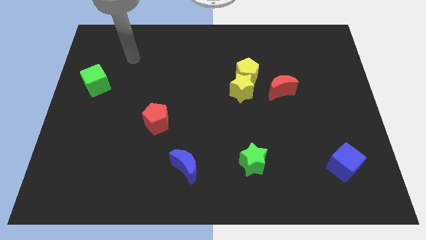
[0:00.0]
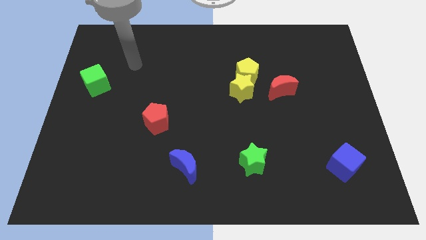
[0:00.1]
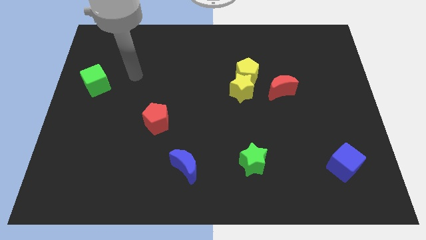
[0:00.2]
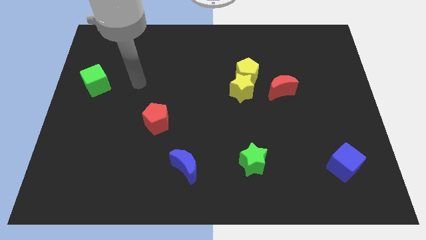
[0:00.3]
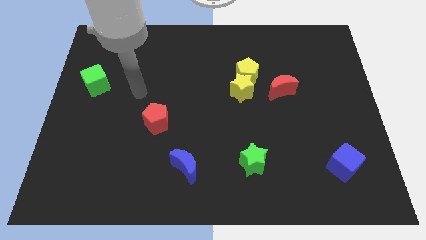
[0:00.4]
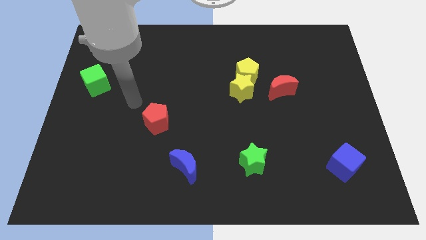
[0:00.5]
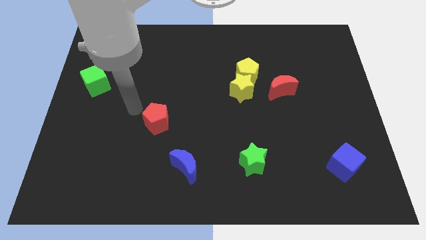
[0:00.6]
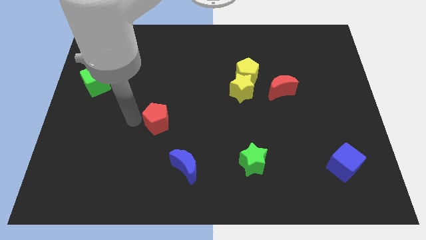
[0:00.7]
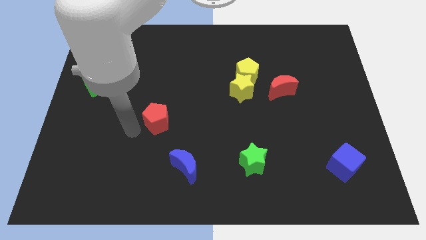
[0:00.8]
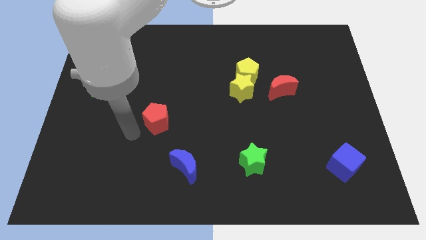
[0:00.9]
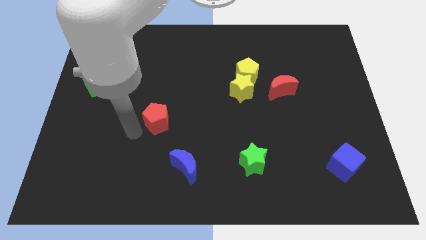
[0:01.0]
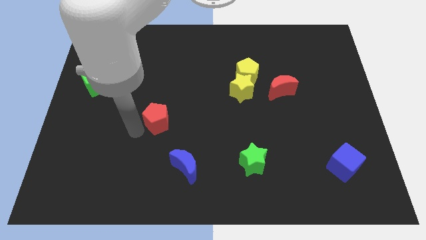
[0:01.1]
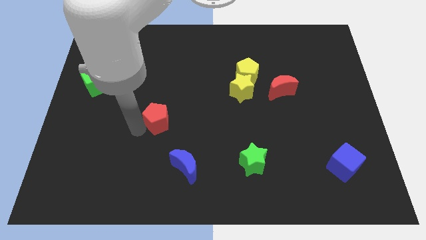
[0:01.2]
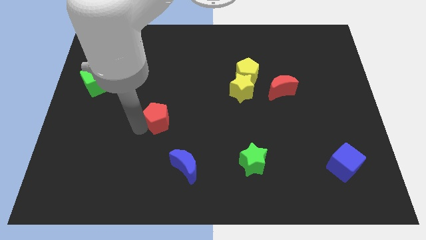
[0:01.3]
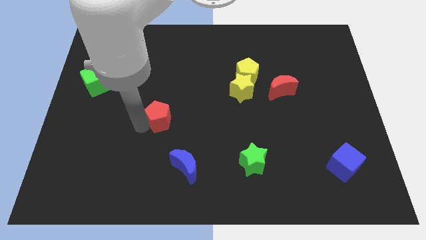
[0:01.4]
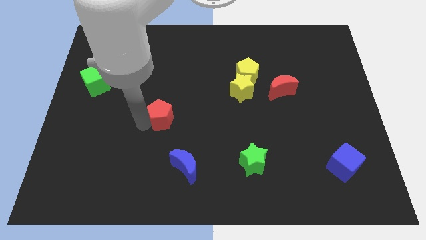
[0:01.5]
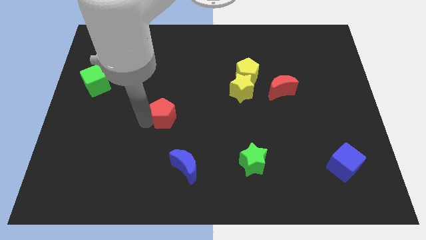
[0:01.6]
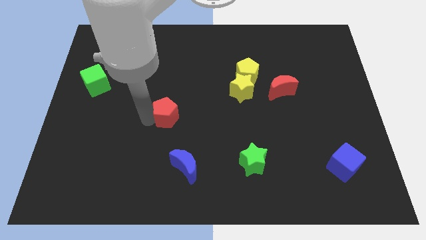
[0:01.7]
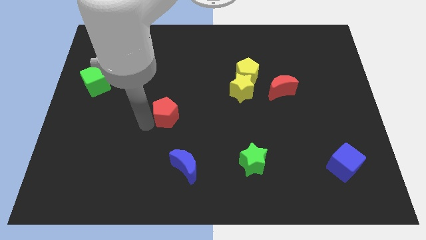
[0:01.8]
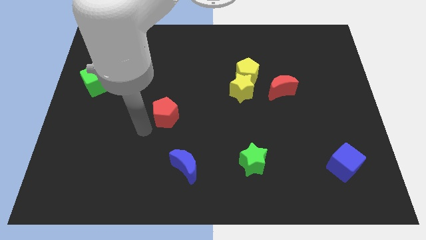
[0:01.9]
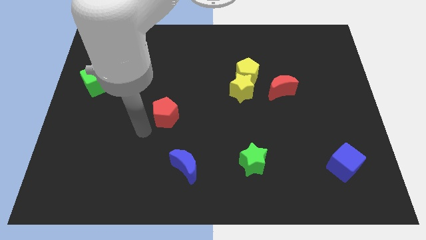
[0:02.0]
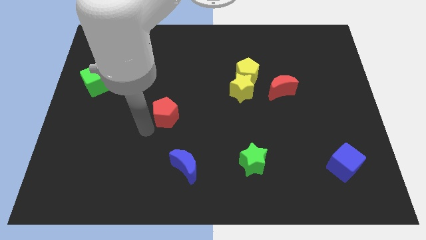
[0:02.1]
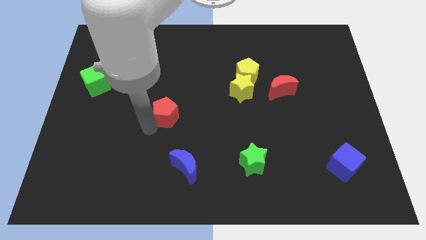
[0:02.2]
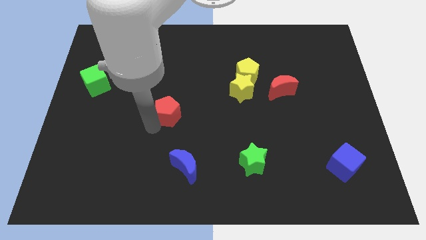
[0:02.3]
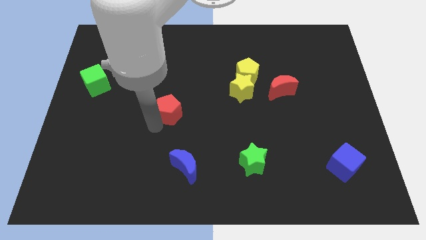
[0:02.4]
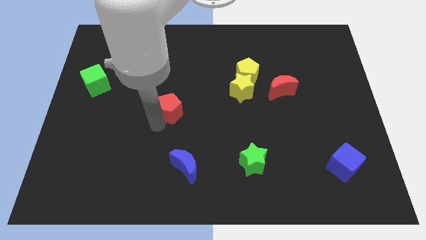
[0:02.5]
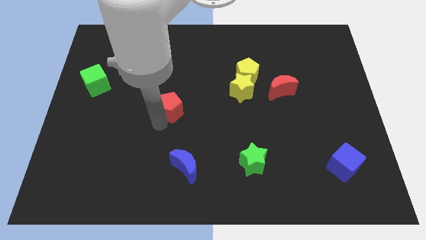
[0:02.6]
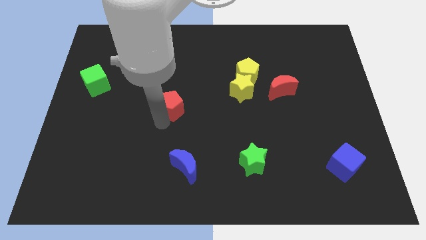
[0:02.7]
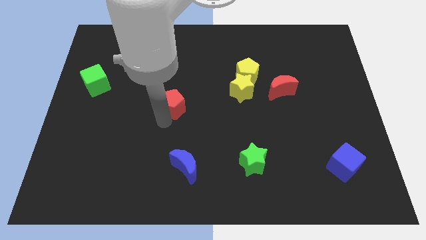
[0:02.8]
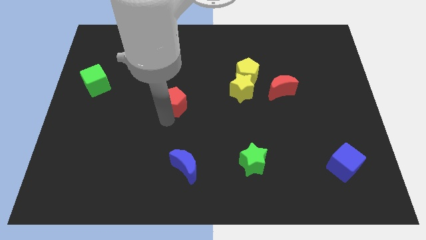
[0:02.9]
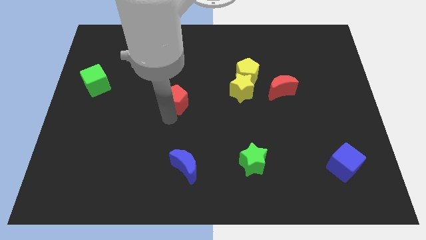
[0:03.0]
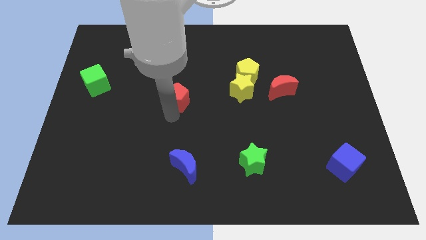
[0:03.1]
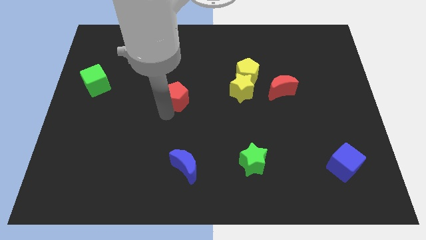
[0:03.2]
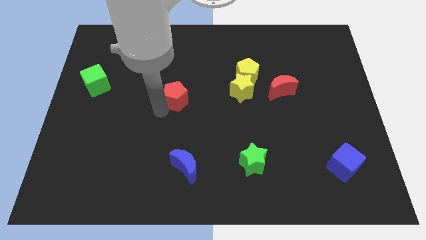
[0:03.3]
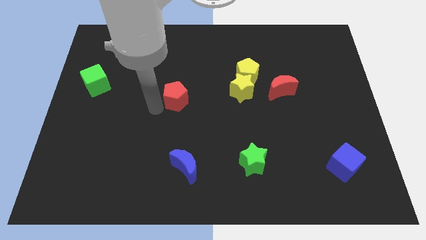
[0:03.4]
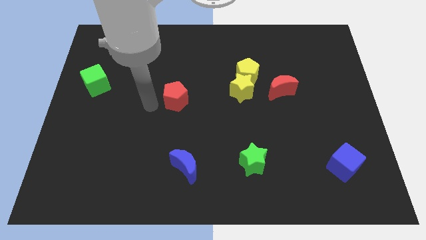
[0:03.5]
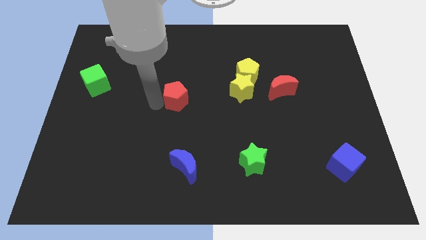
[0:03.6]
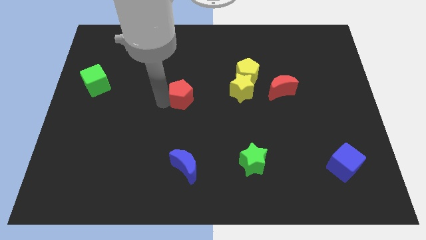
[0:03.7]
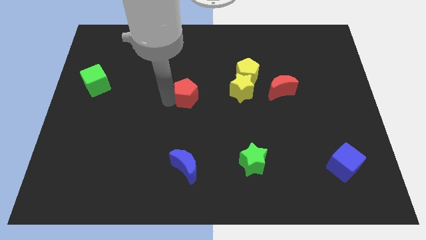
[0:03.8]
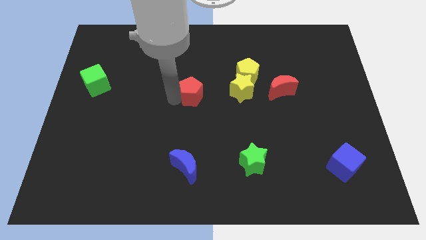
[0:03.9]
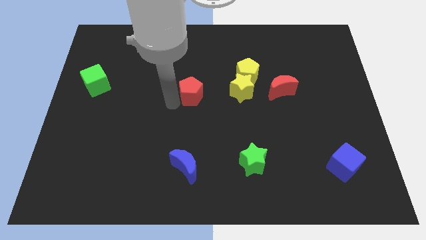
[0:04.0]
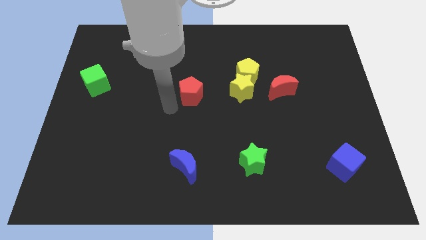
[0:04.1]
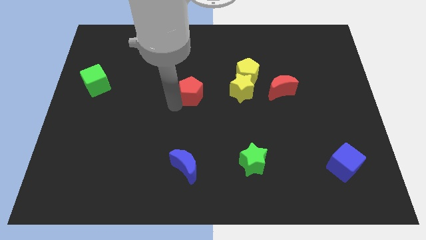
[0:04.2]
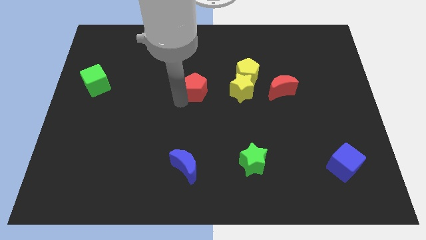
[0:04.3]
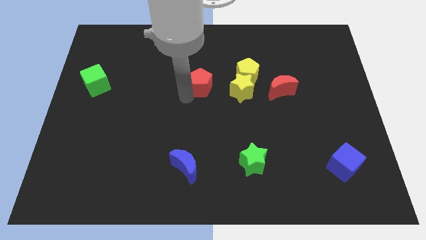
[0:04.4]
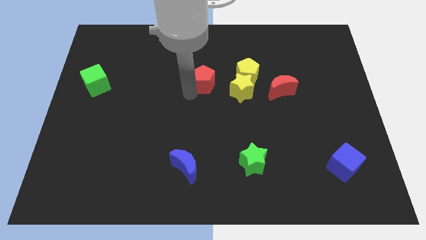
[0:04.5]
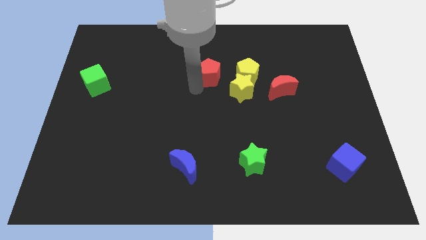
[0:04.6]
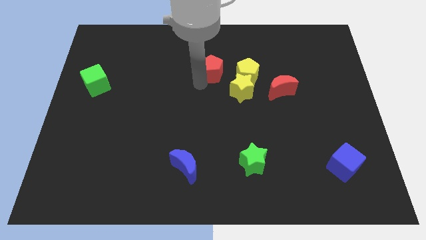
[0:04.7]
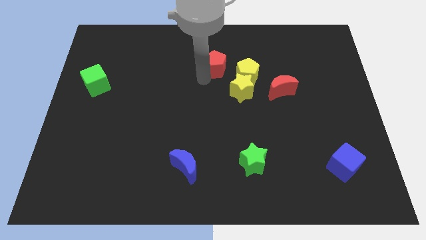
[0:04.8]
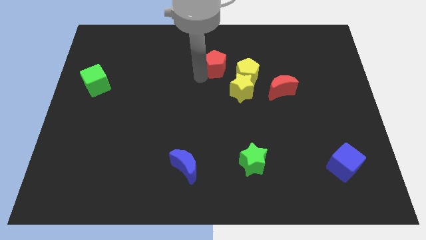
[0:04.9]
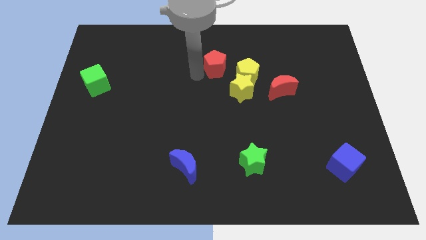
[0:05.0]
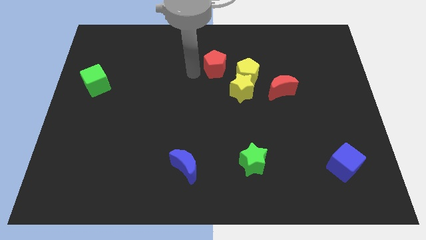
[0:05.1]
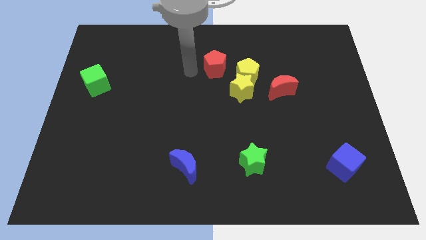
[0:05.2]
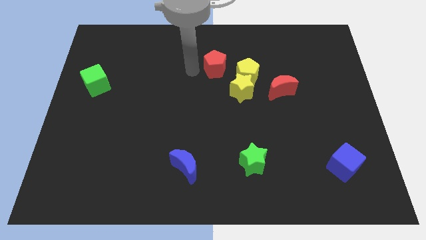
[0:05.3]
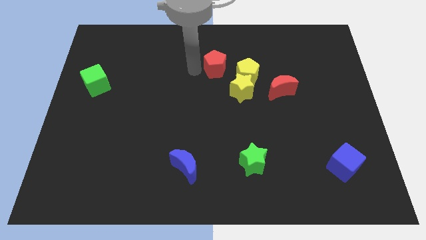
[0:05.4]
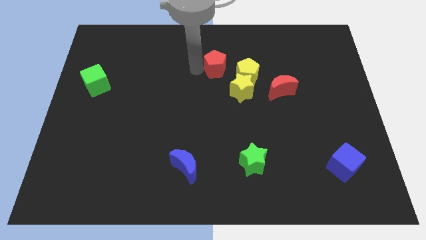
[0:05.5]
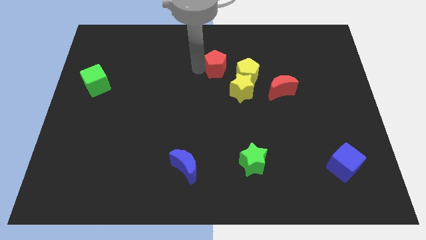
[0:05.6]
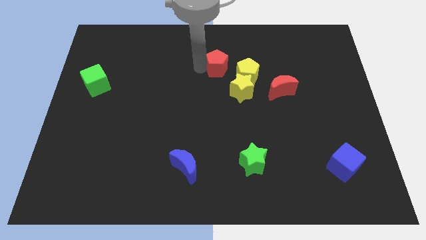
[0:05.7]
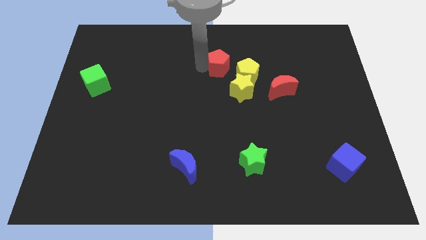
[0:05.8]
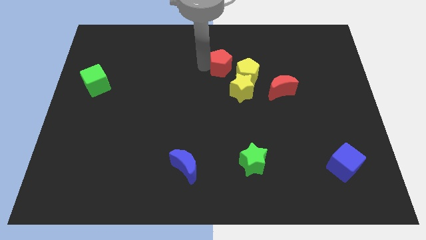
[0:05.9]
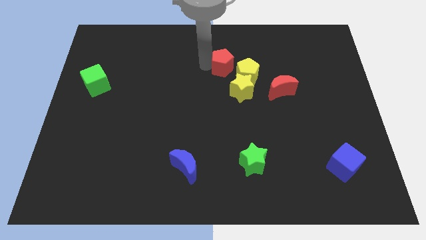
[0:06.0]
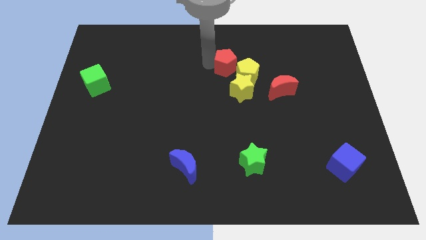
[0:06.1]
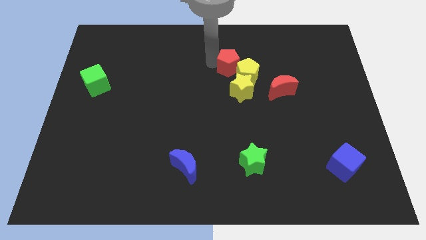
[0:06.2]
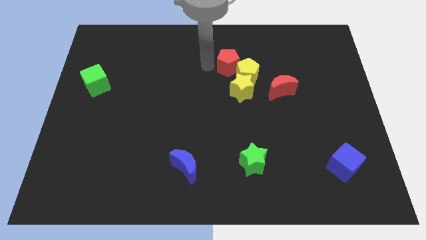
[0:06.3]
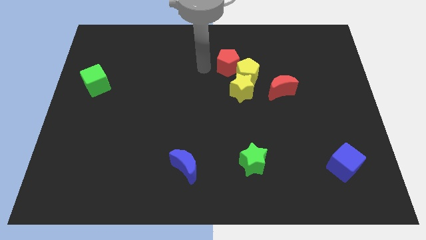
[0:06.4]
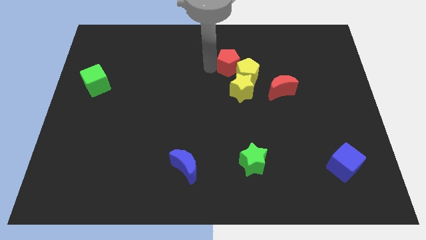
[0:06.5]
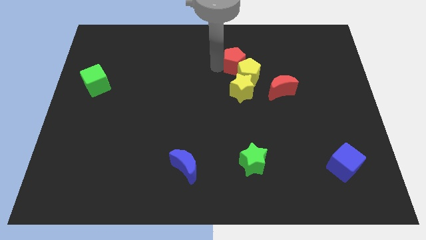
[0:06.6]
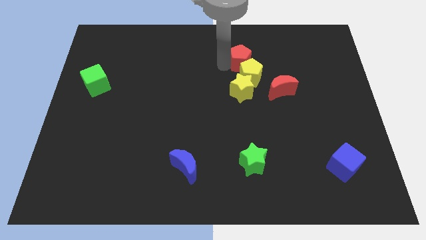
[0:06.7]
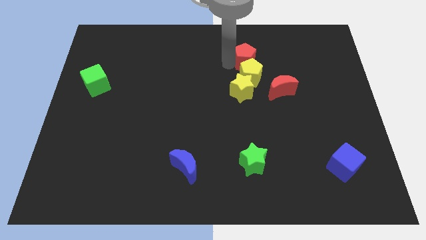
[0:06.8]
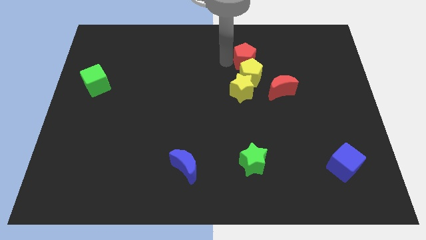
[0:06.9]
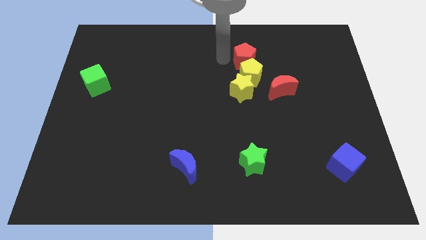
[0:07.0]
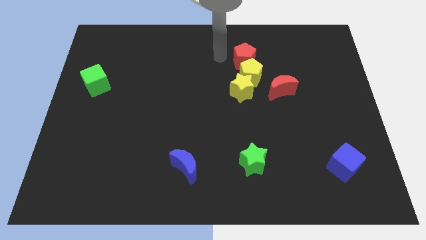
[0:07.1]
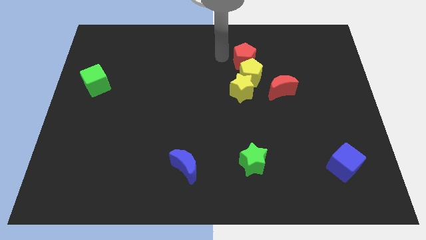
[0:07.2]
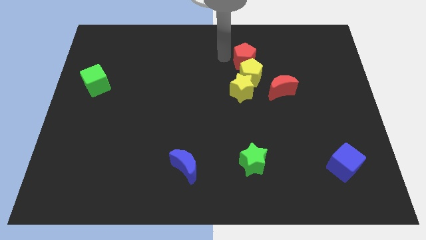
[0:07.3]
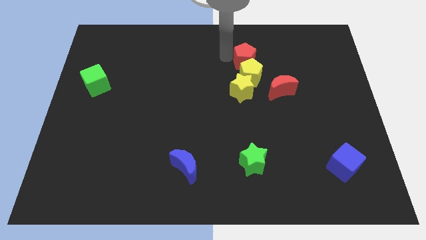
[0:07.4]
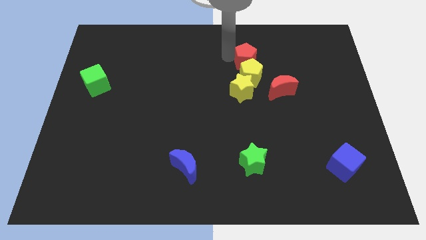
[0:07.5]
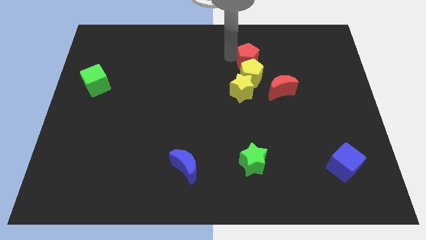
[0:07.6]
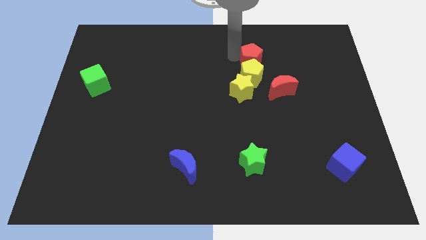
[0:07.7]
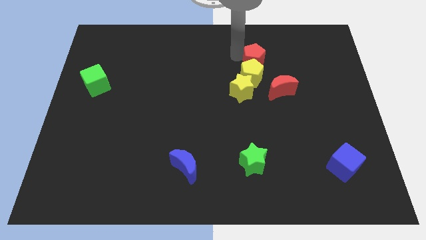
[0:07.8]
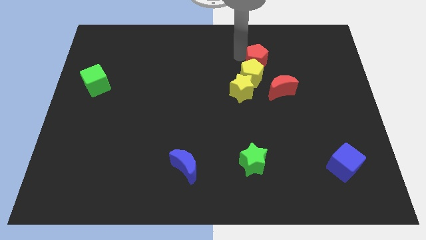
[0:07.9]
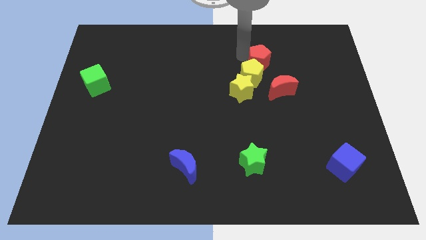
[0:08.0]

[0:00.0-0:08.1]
slide the red pentagon to the top side of the red moon
